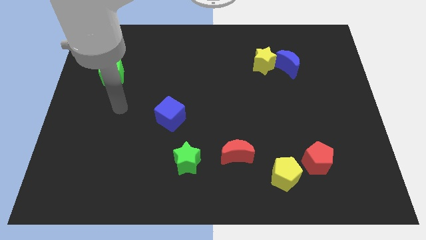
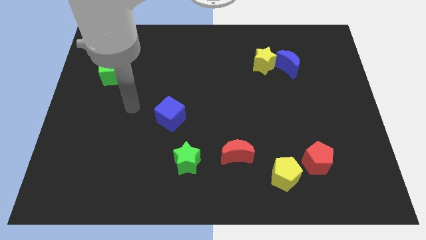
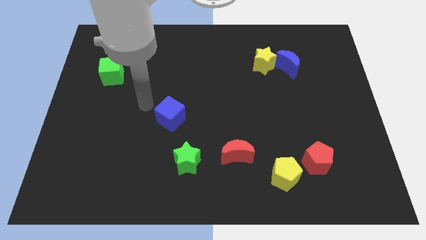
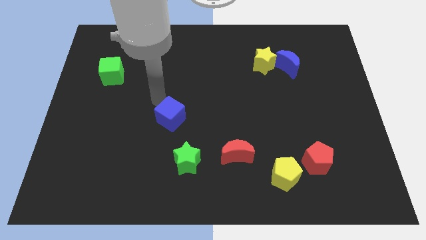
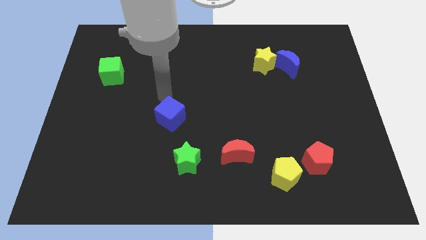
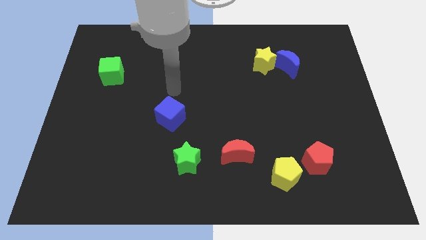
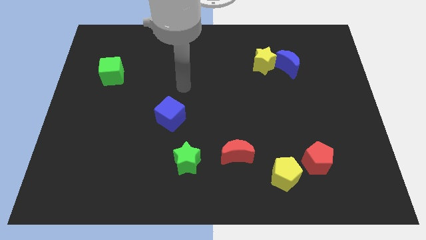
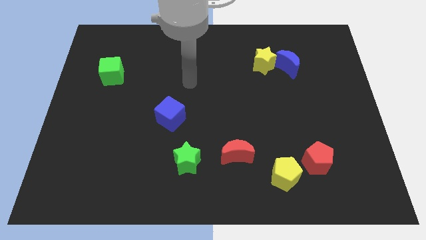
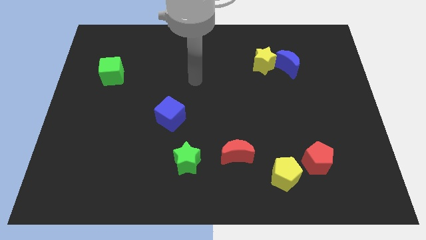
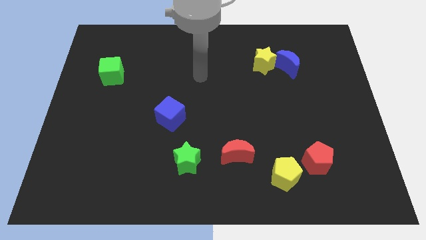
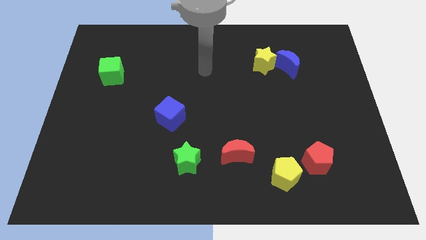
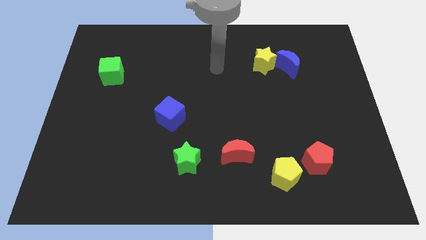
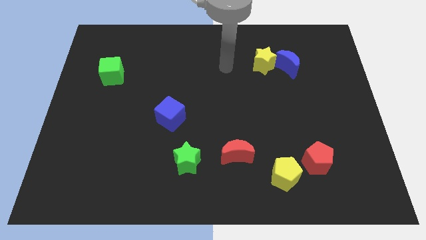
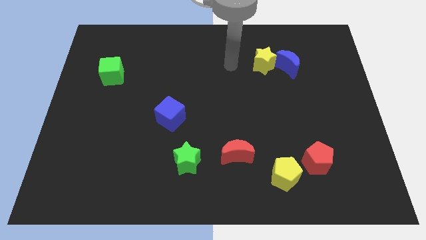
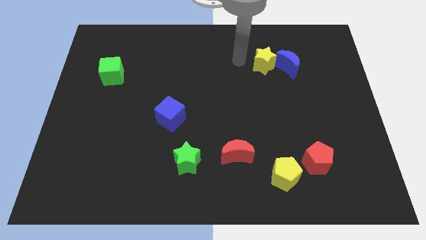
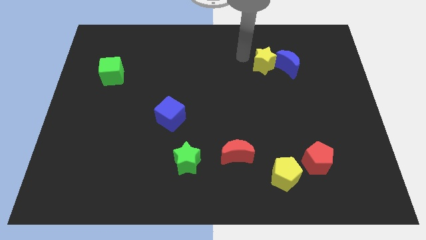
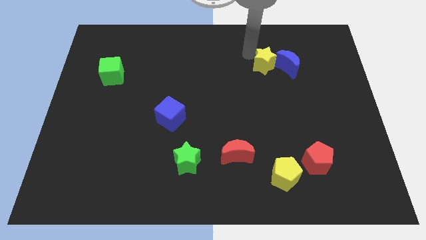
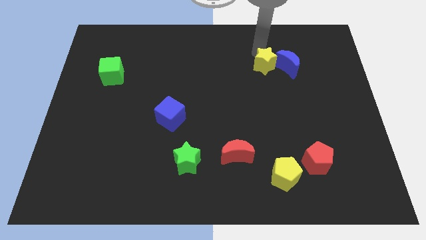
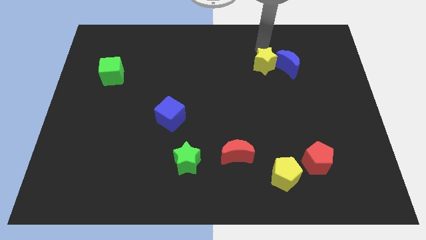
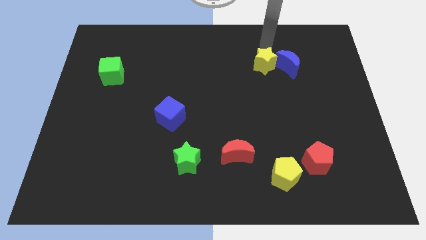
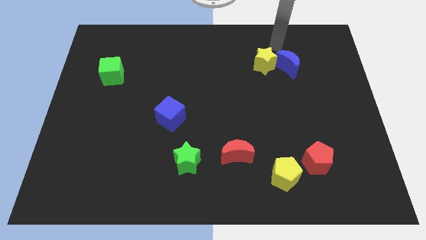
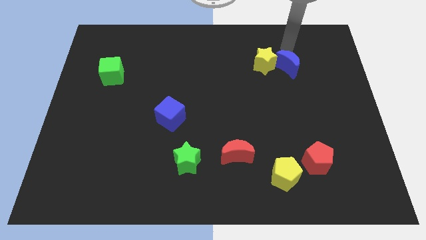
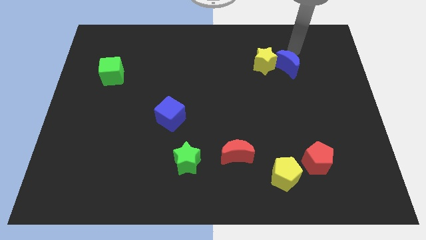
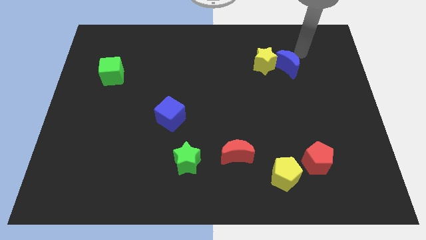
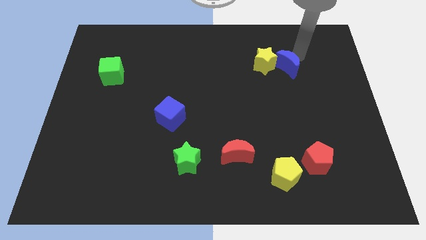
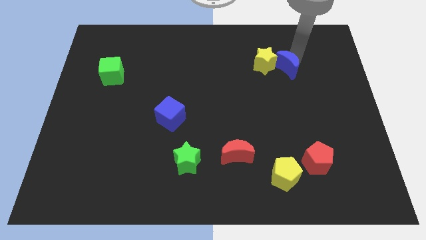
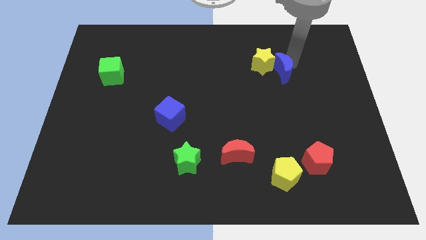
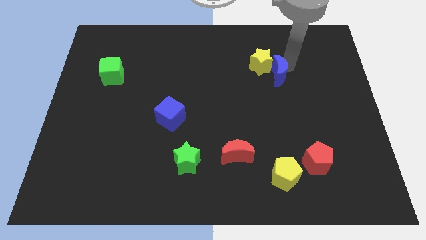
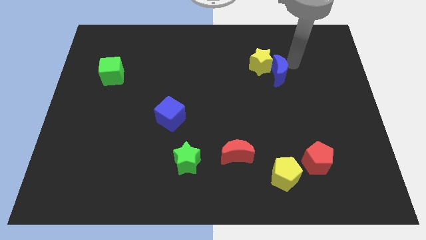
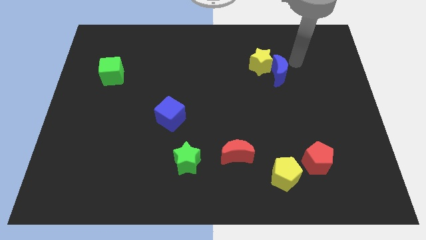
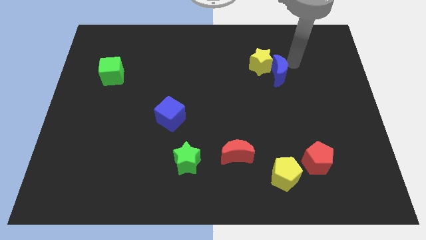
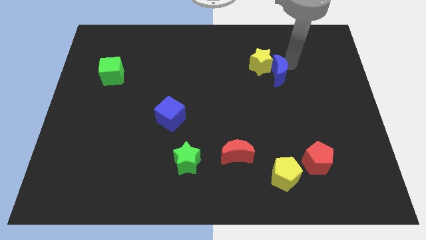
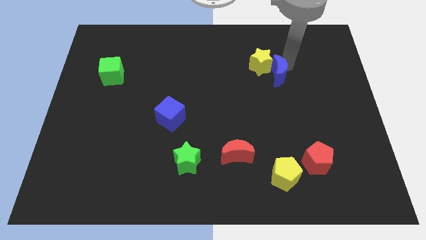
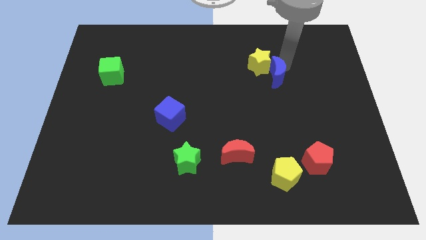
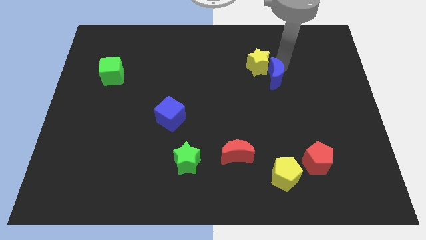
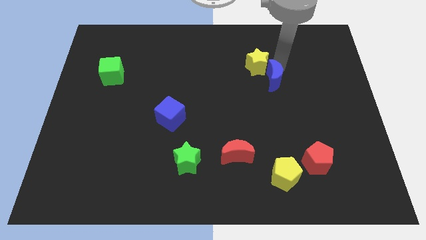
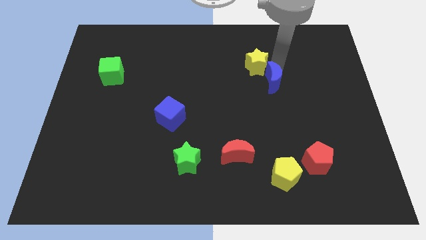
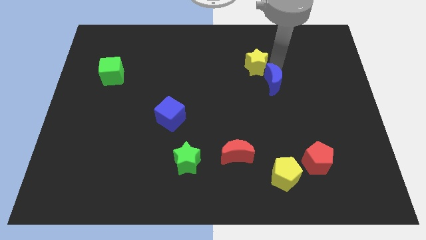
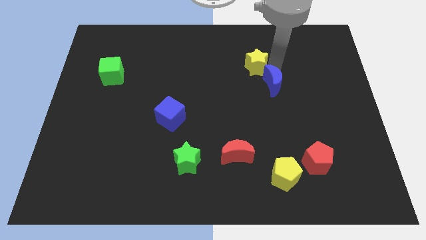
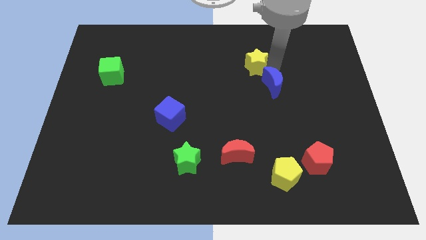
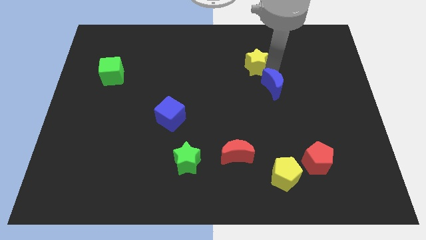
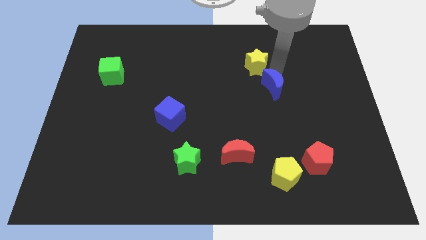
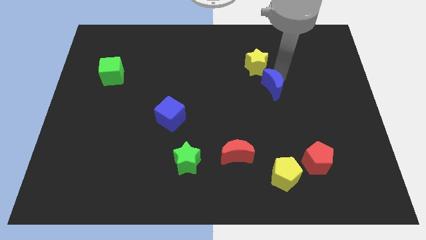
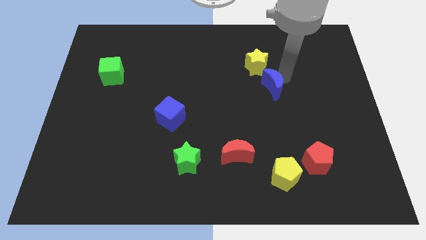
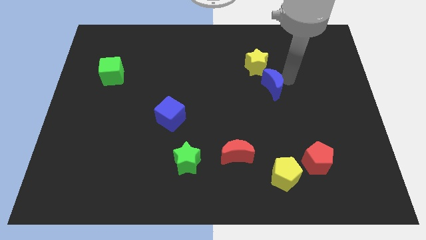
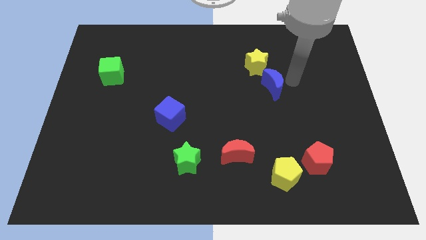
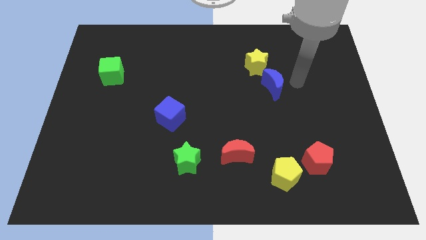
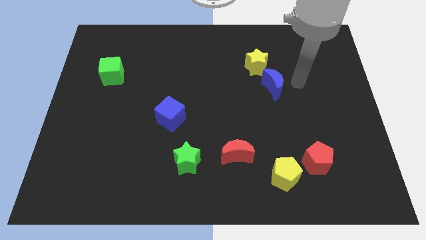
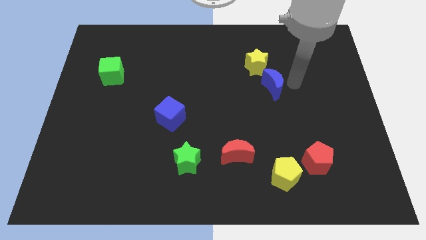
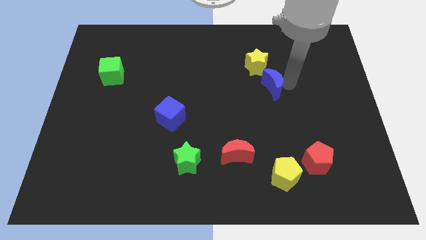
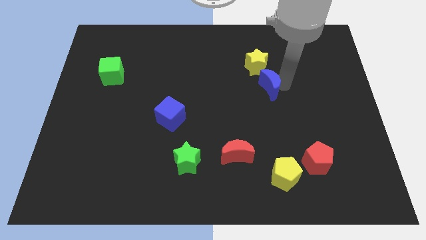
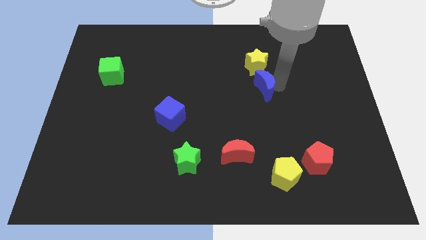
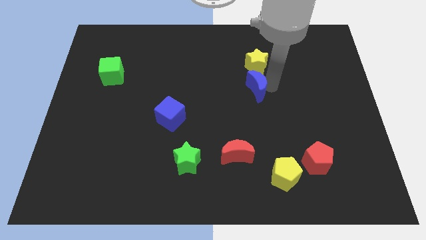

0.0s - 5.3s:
push the blue moon to the middle of the board

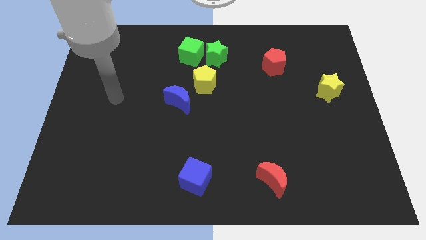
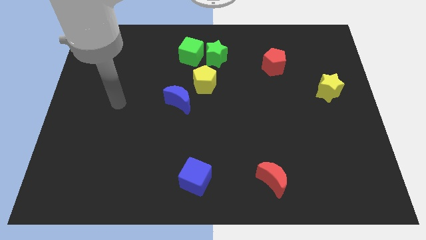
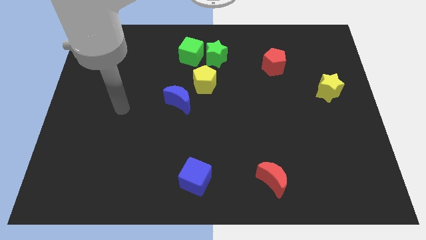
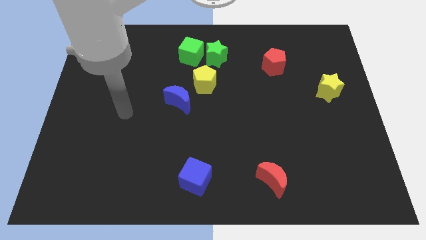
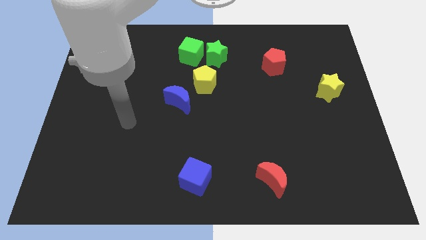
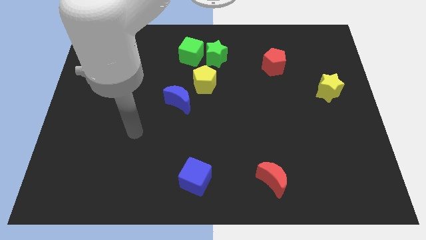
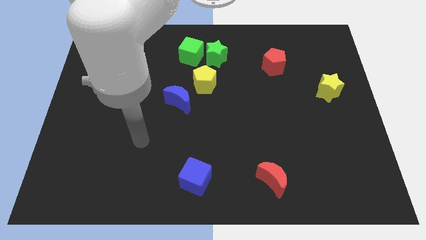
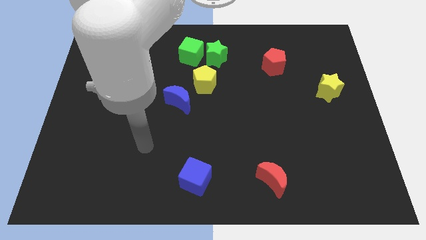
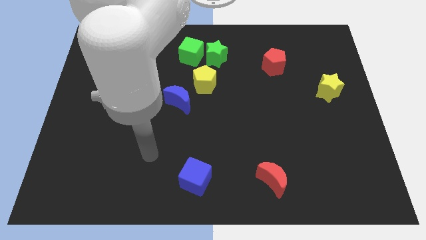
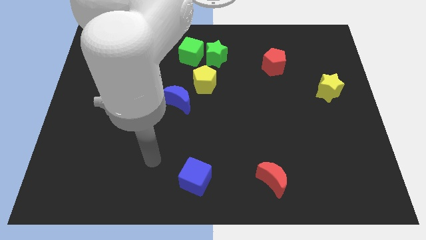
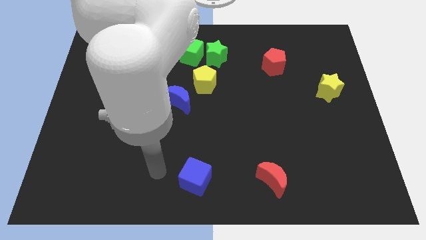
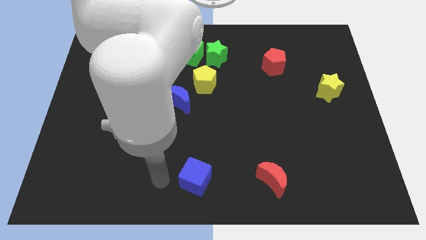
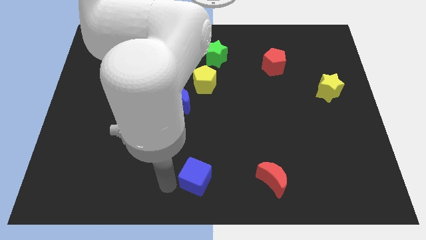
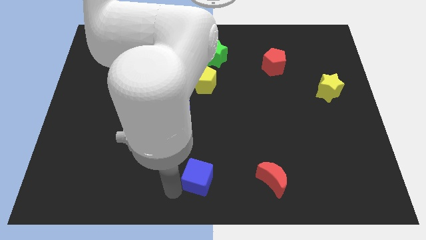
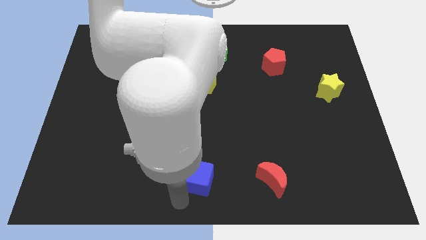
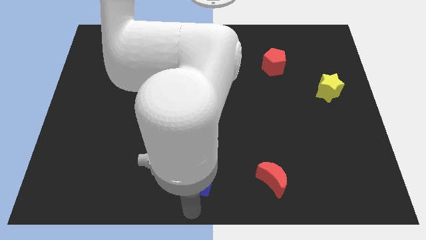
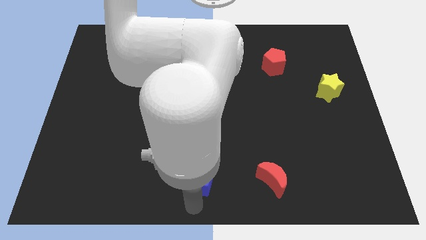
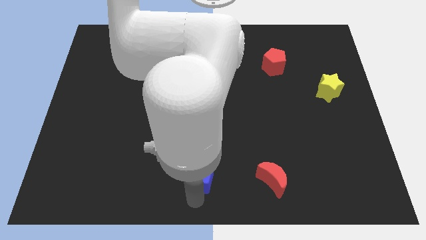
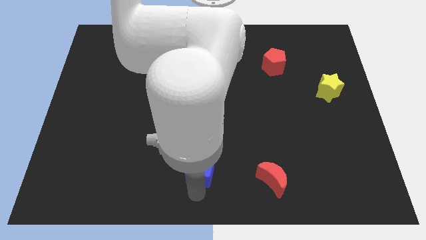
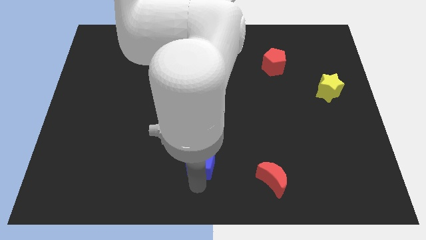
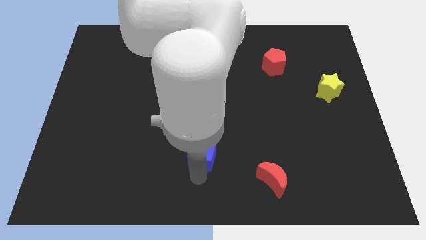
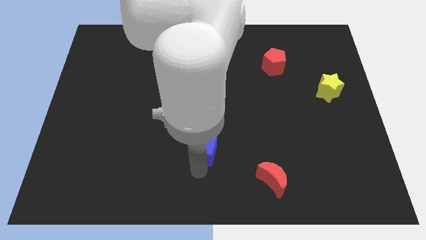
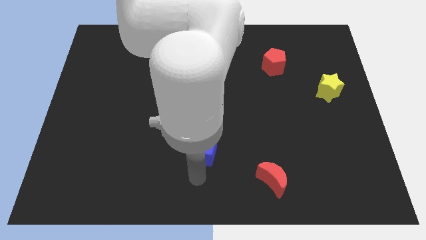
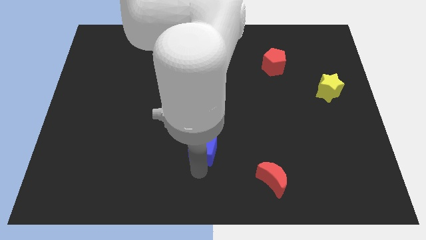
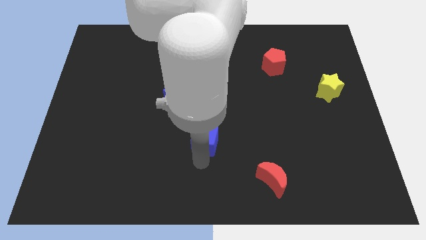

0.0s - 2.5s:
push the blue cube to the center
